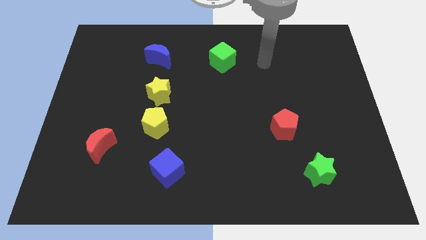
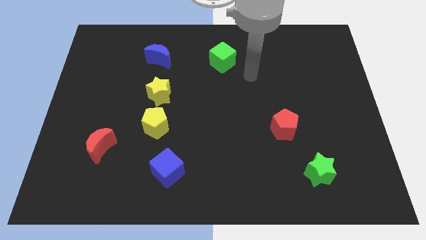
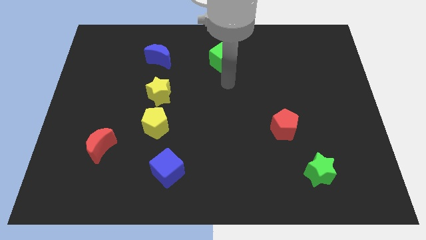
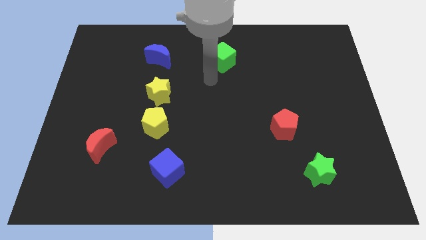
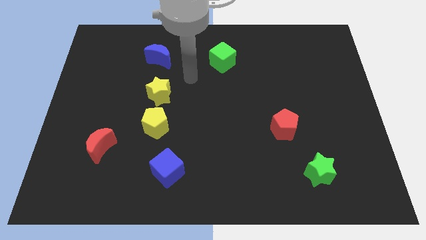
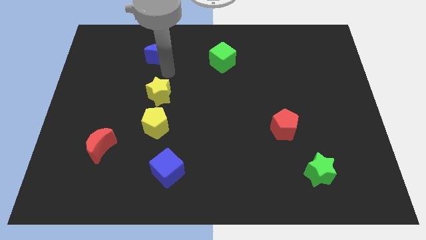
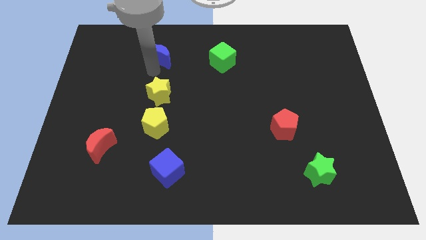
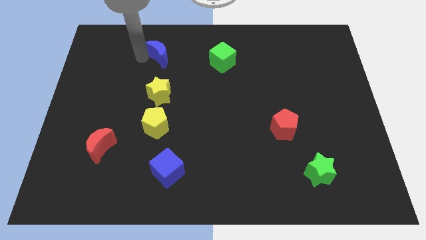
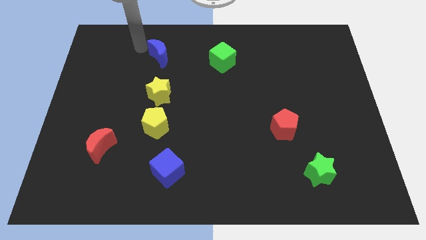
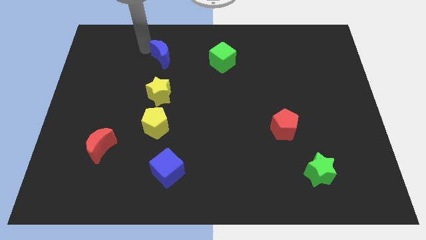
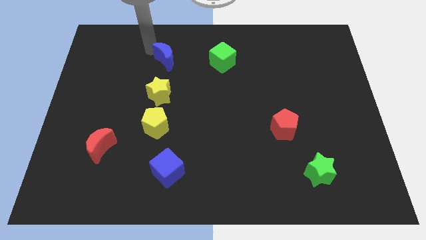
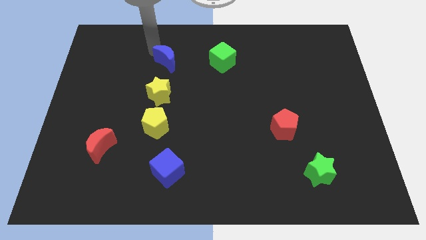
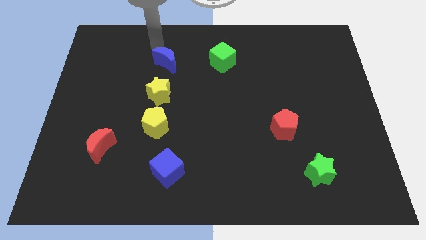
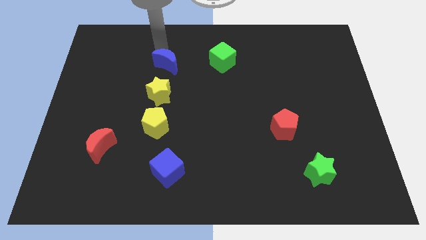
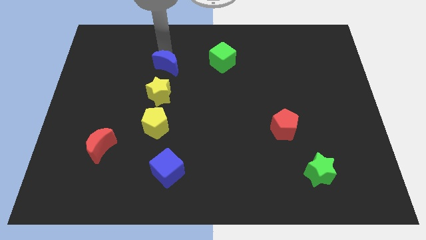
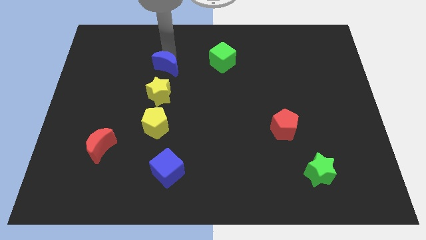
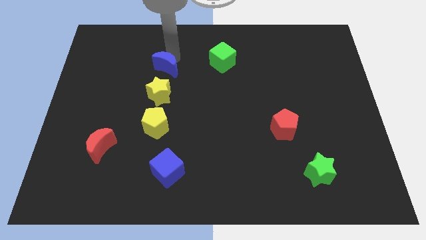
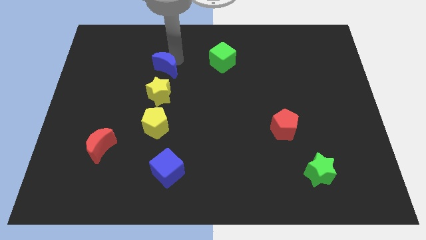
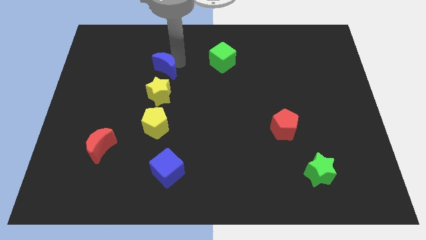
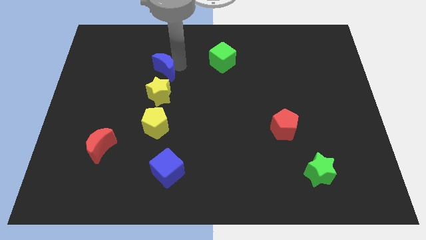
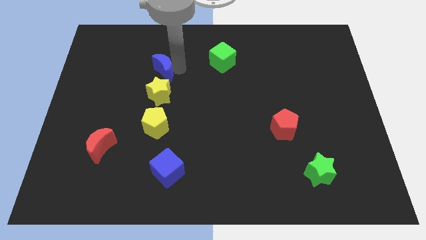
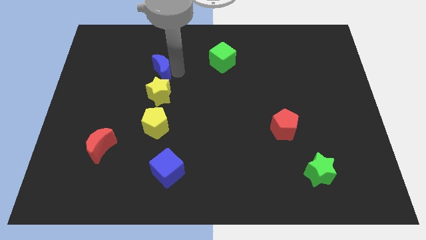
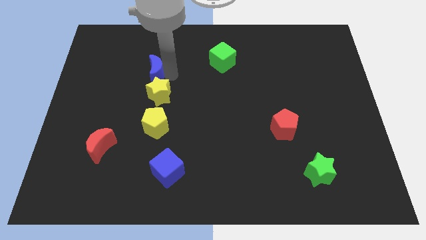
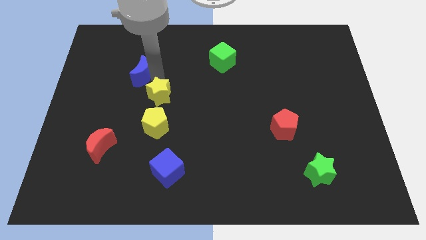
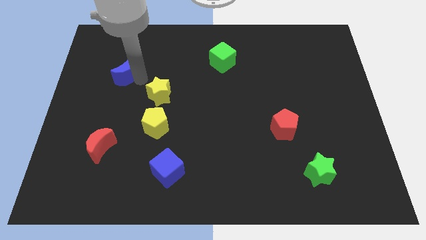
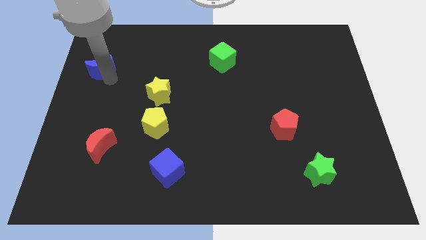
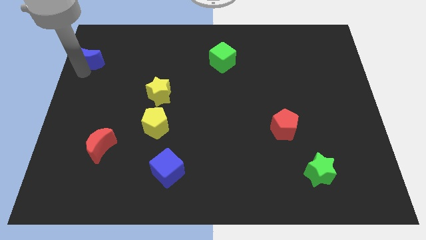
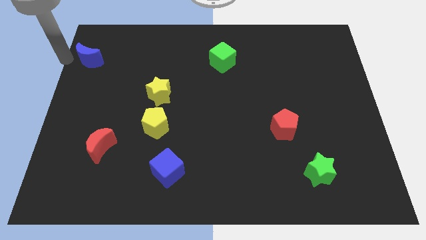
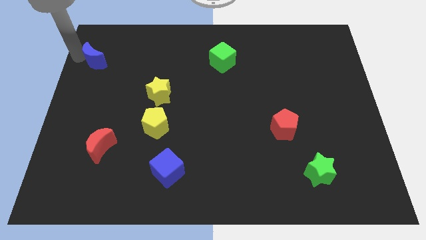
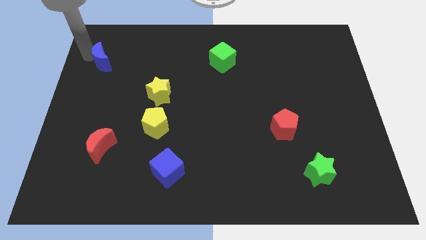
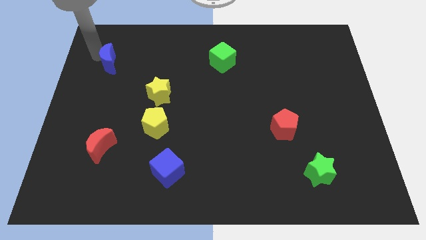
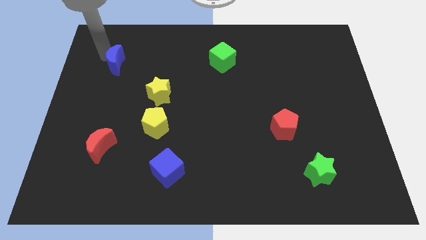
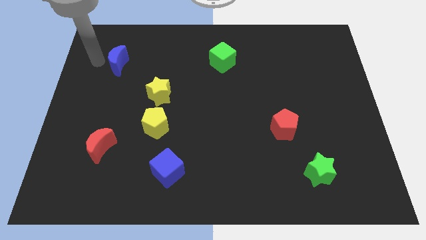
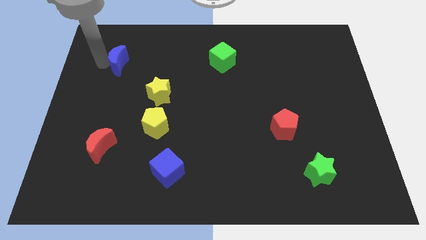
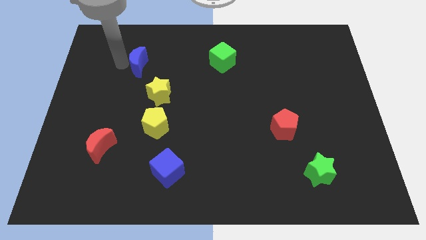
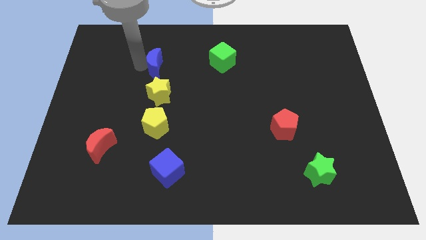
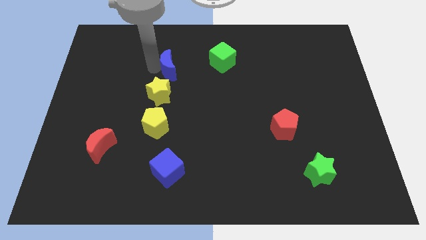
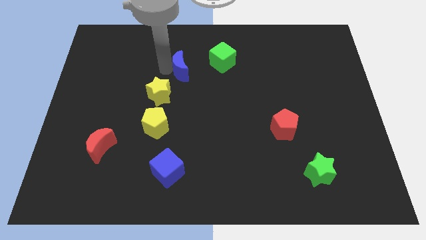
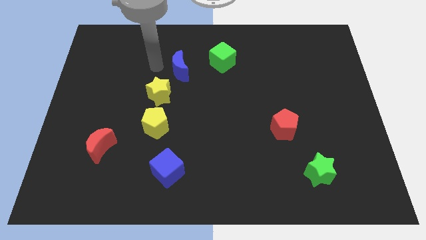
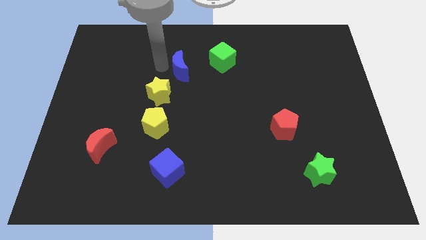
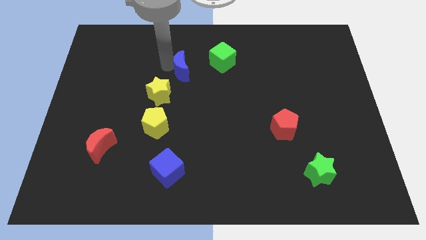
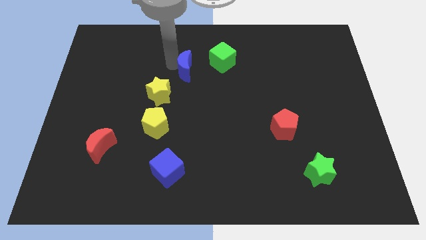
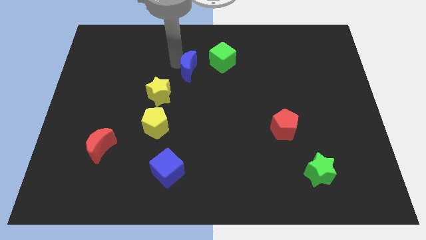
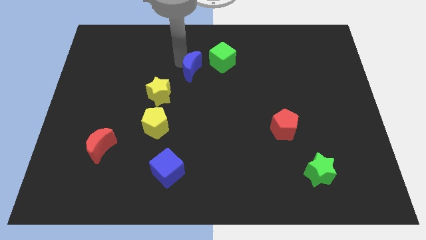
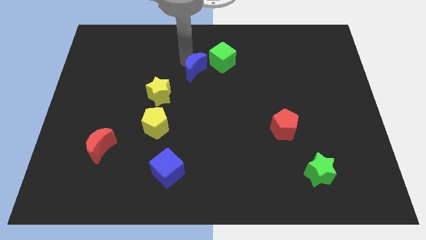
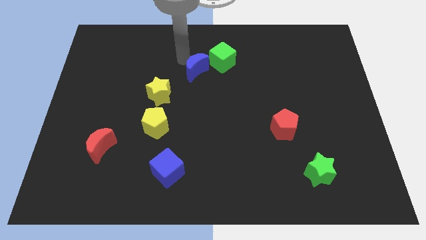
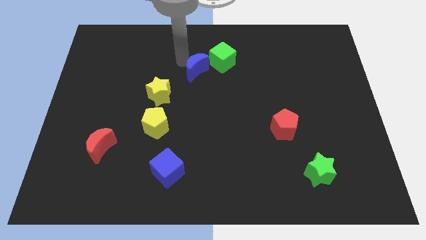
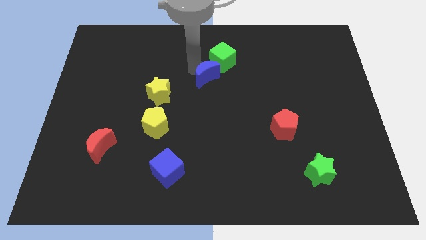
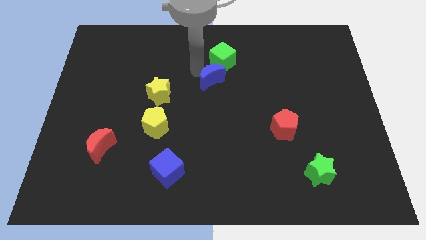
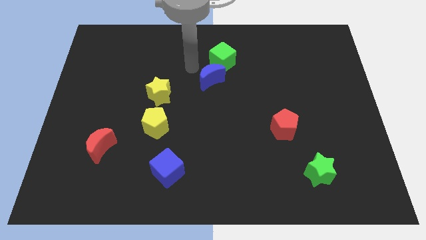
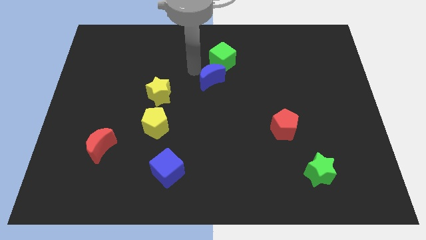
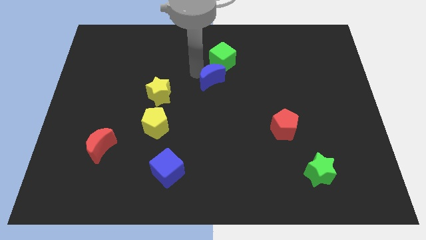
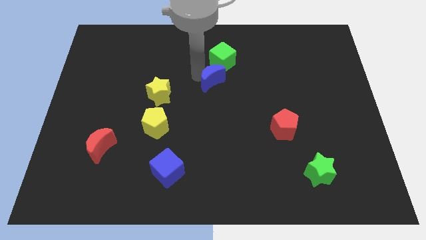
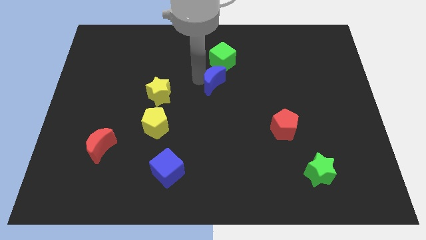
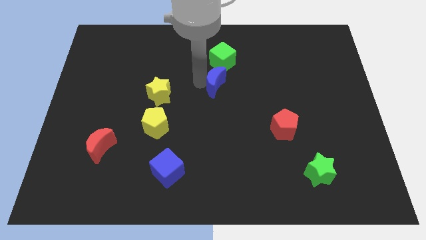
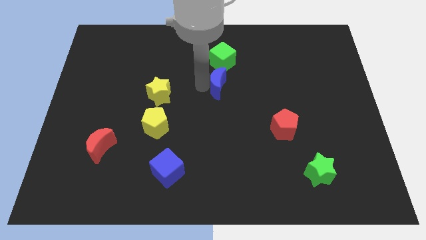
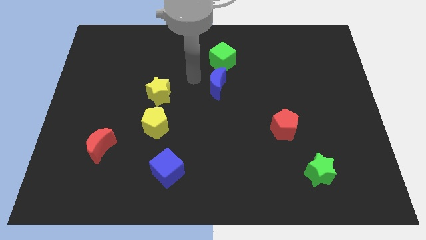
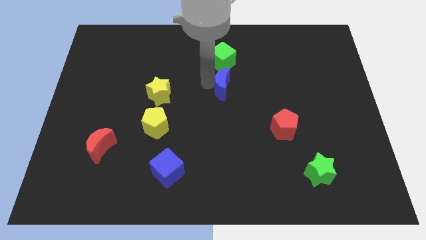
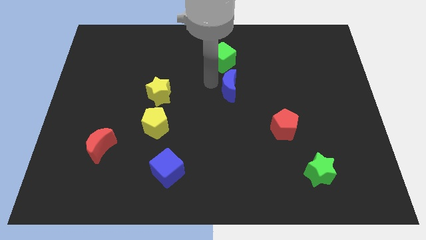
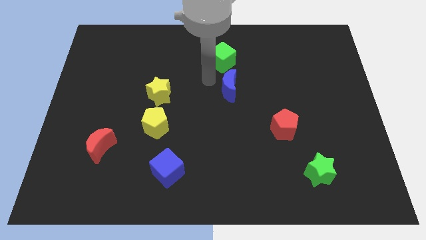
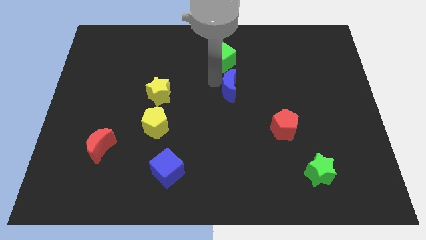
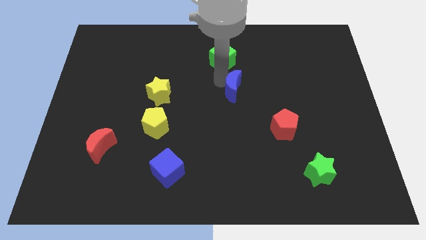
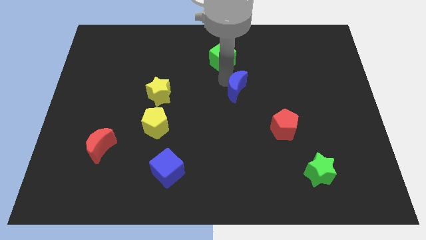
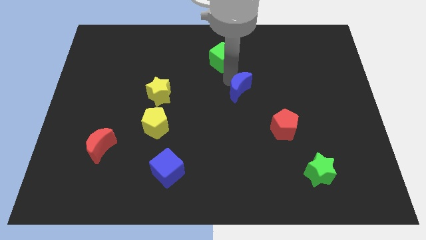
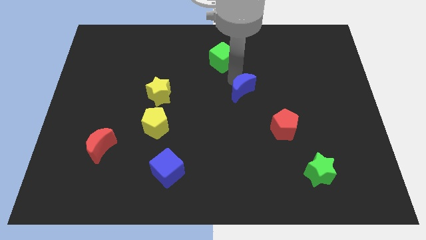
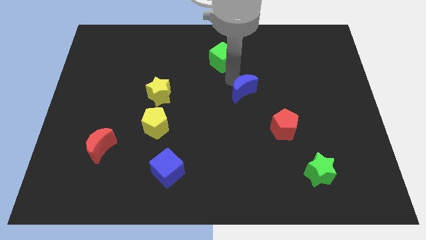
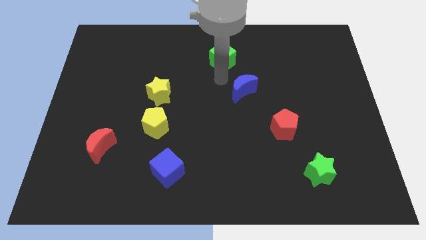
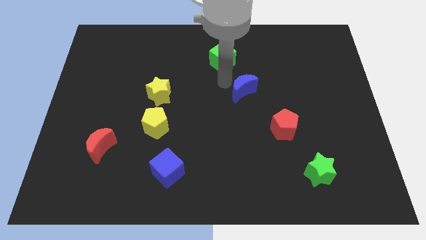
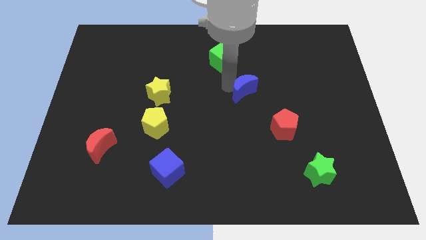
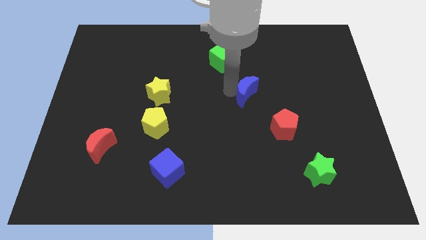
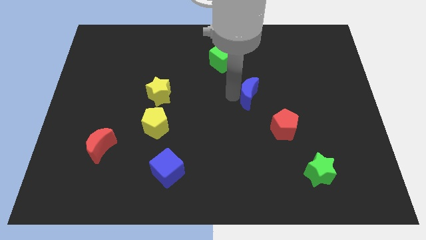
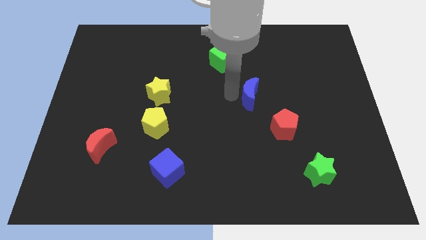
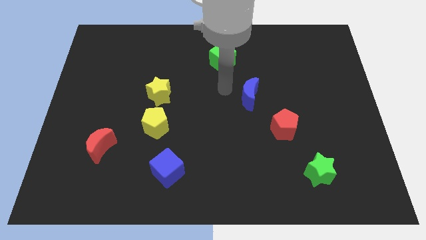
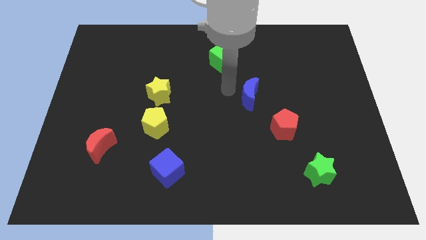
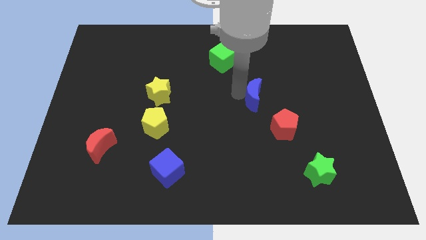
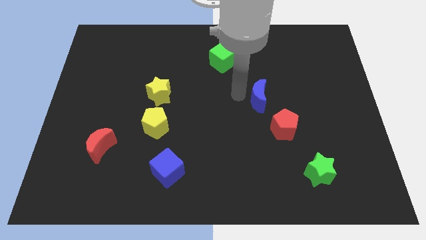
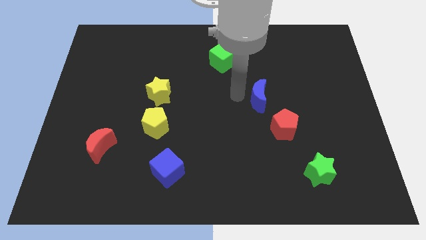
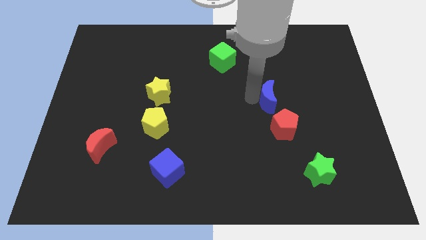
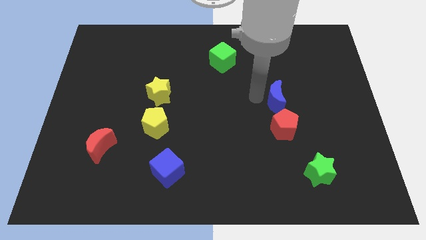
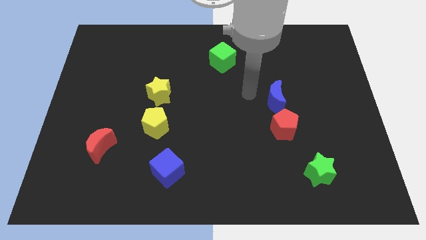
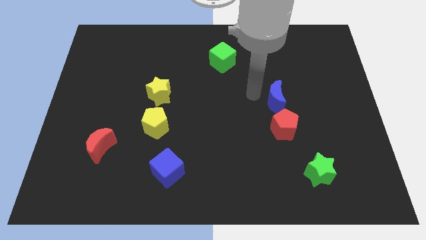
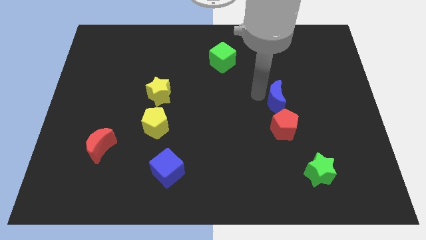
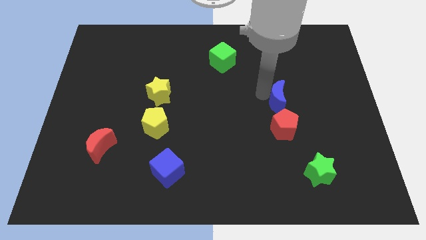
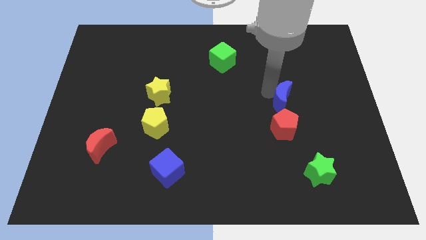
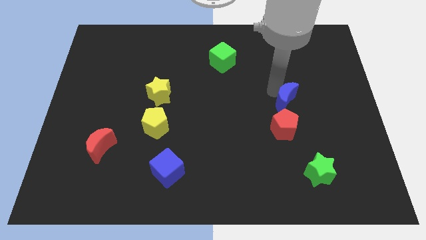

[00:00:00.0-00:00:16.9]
slide the blue moon to the top right of the red pentagon
